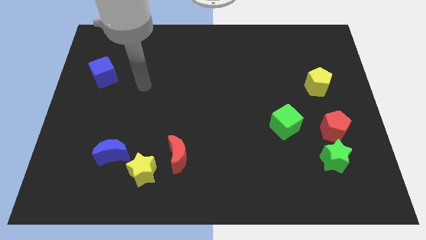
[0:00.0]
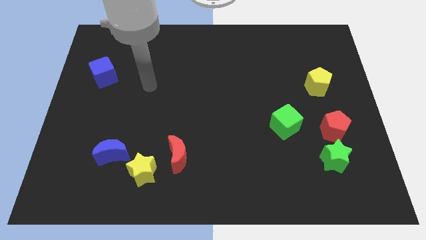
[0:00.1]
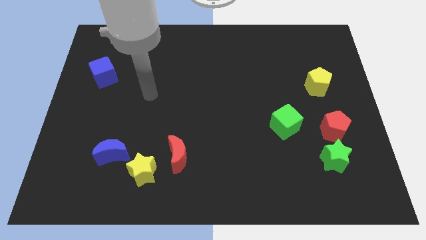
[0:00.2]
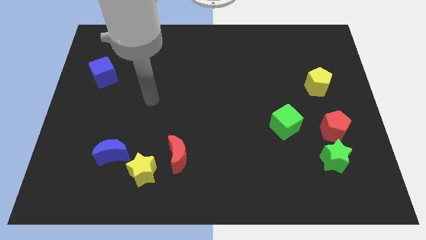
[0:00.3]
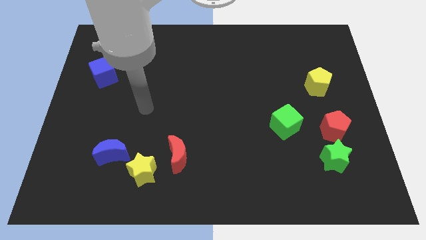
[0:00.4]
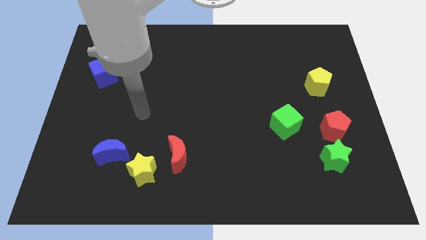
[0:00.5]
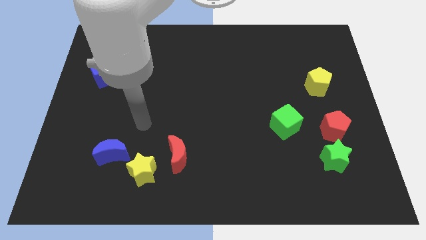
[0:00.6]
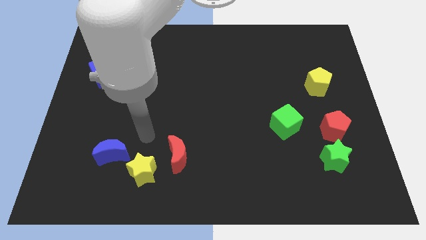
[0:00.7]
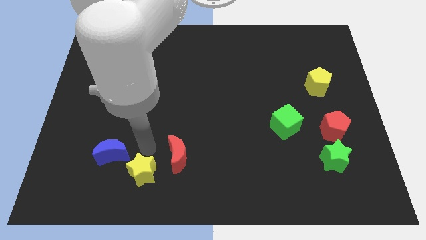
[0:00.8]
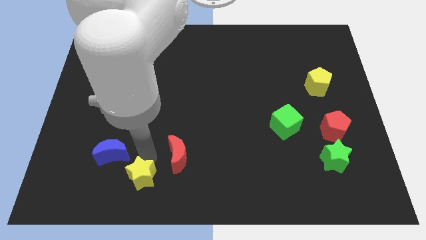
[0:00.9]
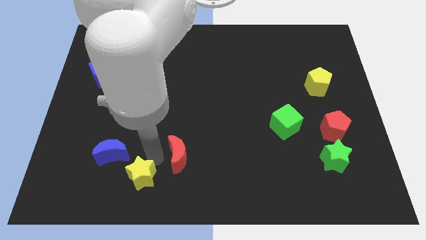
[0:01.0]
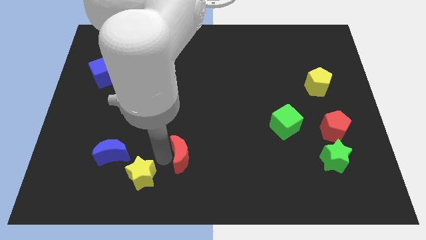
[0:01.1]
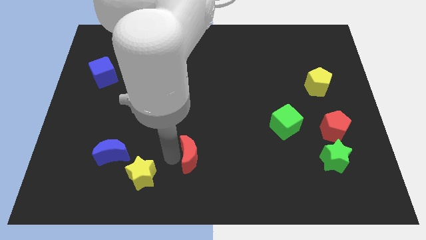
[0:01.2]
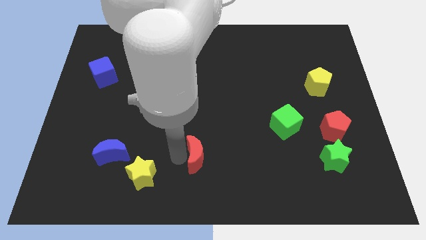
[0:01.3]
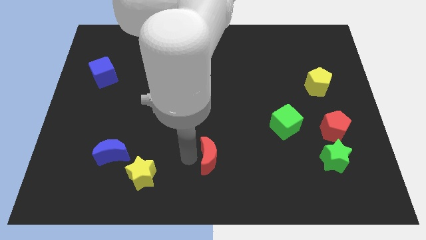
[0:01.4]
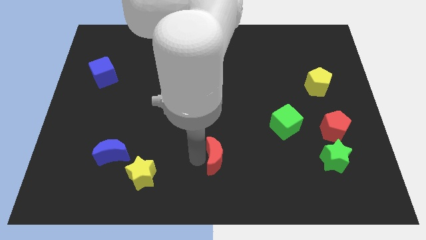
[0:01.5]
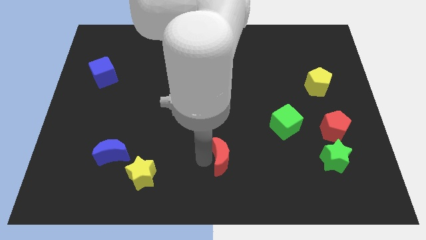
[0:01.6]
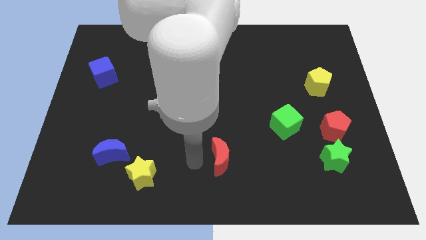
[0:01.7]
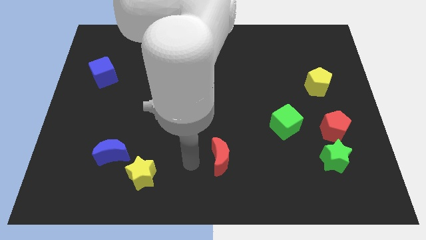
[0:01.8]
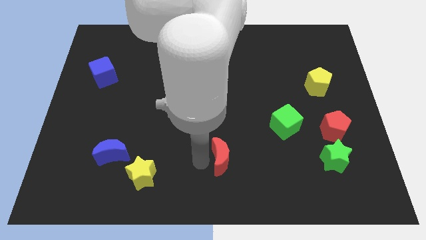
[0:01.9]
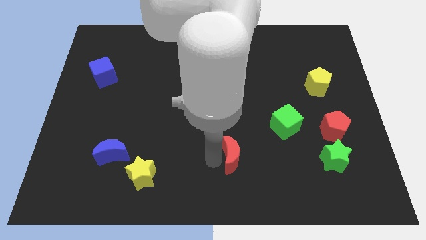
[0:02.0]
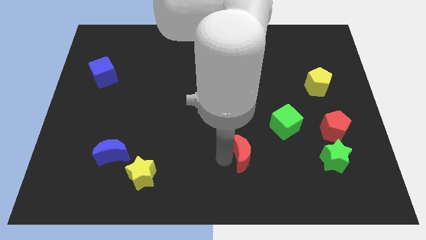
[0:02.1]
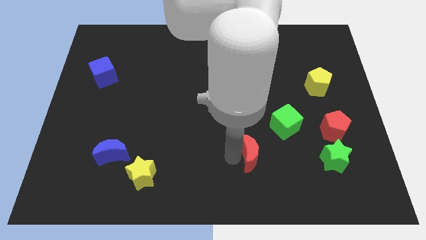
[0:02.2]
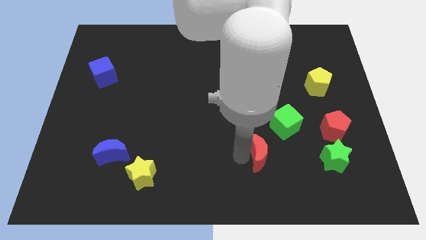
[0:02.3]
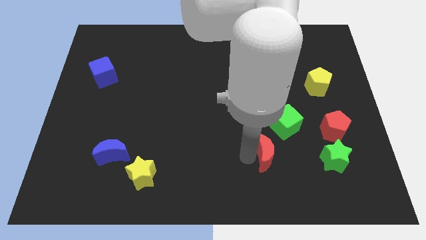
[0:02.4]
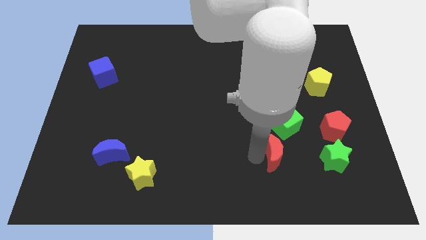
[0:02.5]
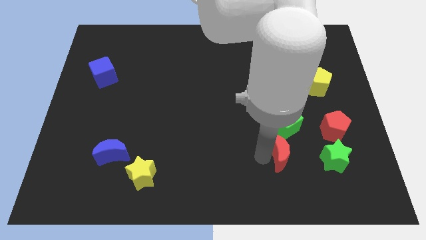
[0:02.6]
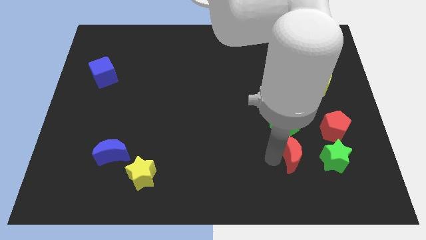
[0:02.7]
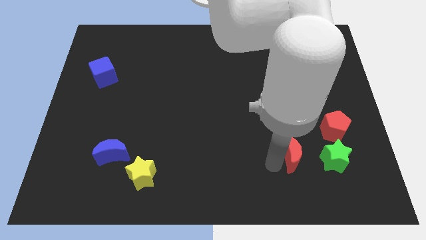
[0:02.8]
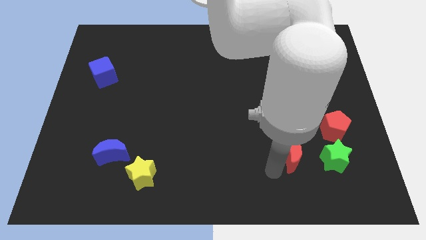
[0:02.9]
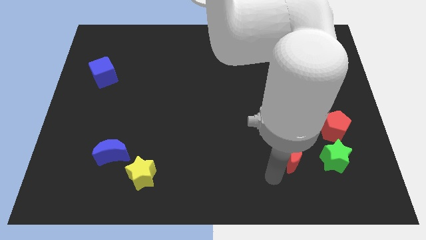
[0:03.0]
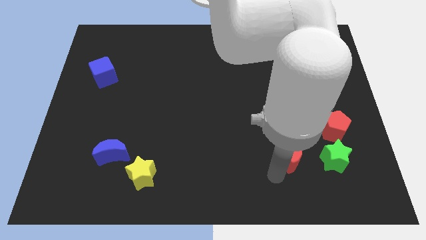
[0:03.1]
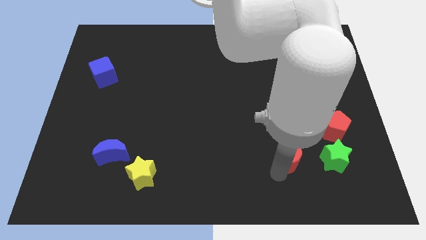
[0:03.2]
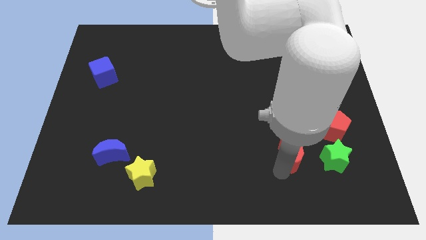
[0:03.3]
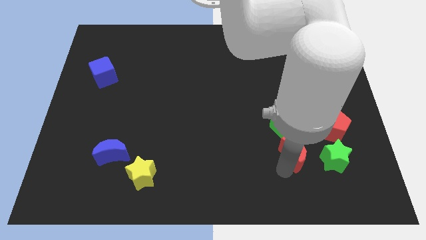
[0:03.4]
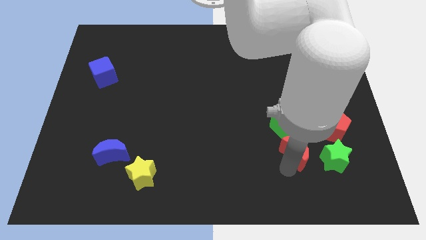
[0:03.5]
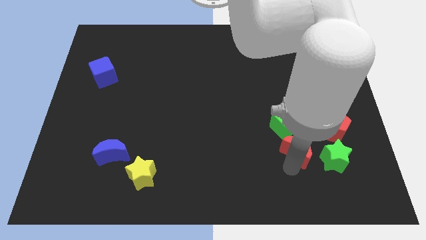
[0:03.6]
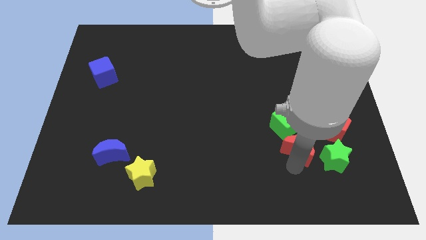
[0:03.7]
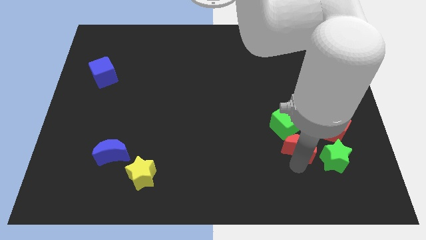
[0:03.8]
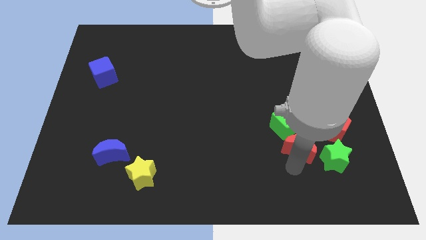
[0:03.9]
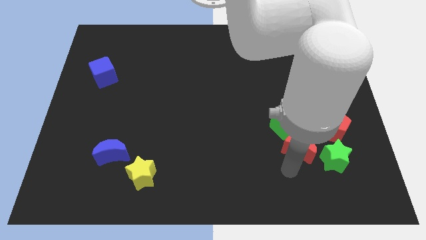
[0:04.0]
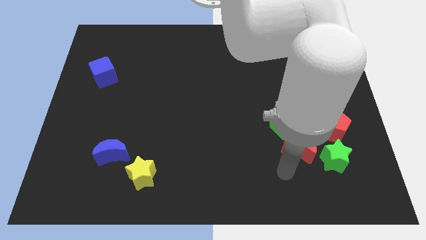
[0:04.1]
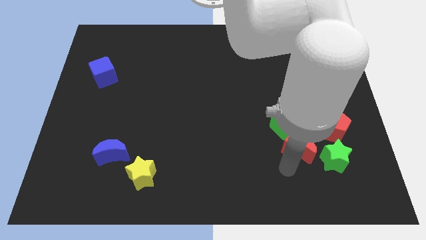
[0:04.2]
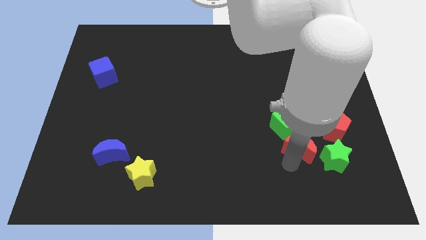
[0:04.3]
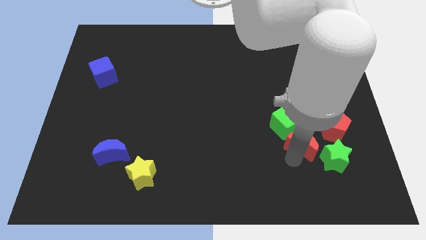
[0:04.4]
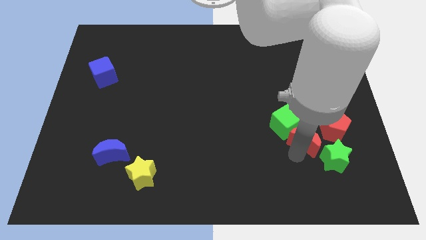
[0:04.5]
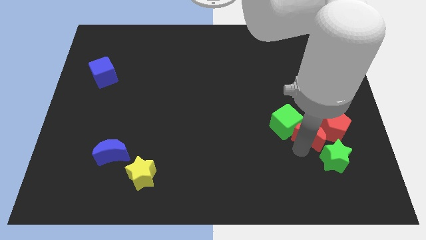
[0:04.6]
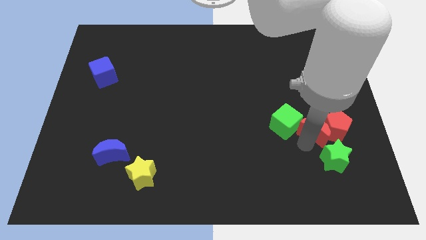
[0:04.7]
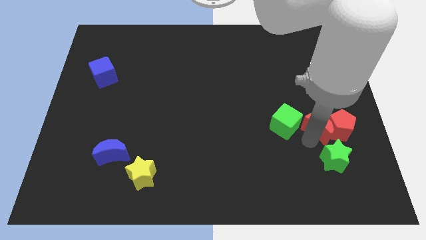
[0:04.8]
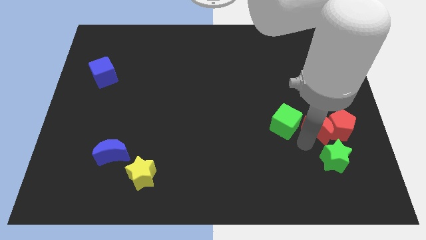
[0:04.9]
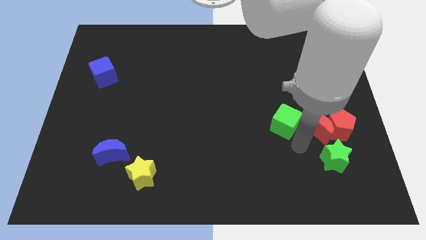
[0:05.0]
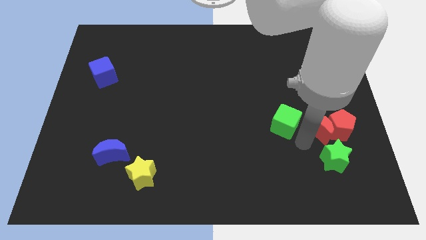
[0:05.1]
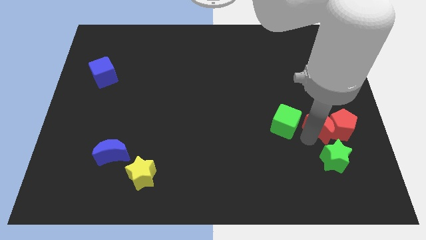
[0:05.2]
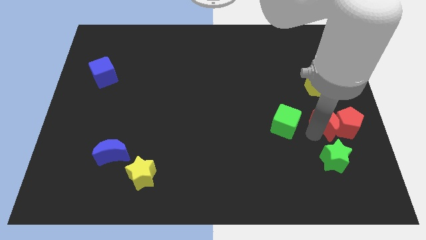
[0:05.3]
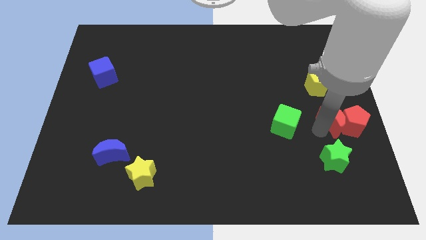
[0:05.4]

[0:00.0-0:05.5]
slide the red moon to the right side of the board

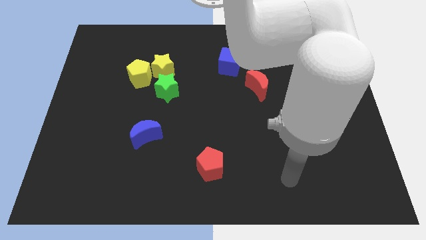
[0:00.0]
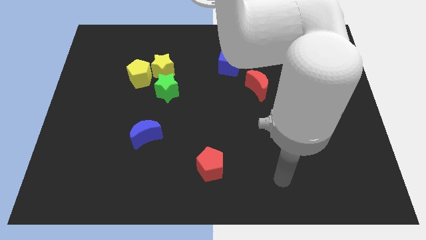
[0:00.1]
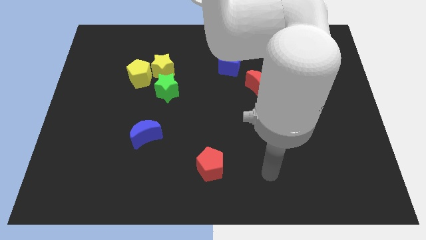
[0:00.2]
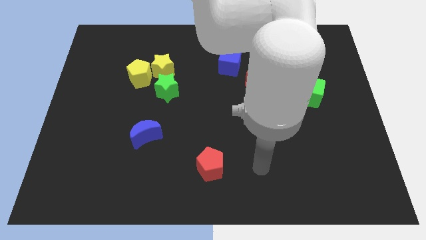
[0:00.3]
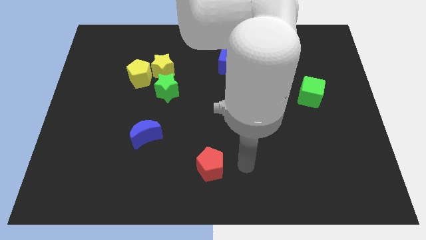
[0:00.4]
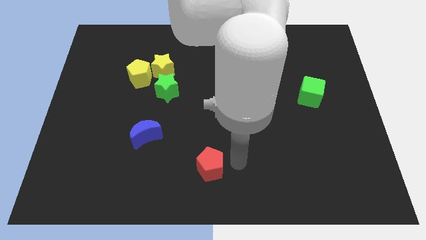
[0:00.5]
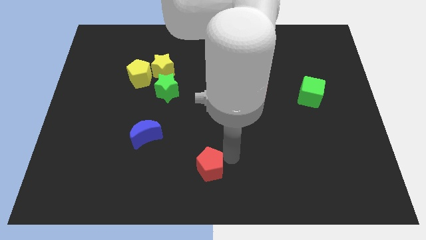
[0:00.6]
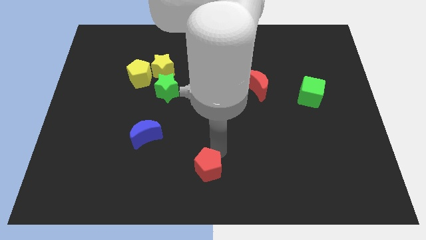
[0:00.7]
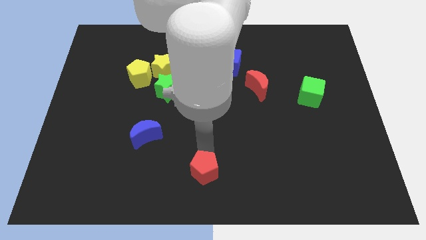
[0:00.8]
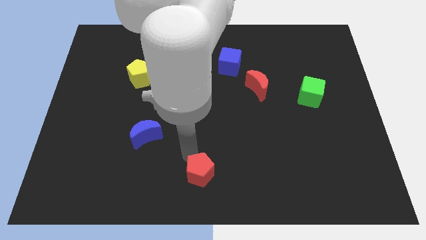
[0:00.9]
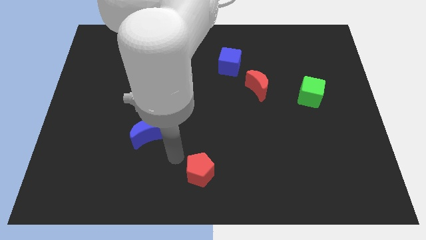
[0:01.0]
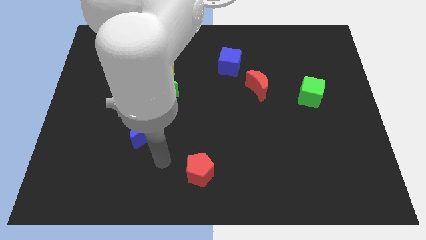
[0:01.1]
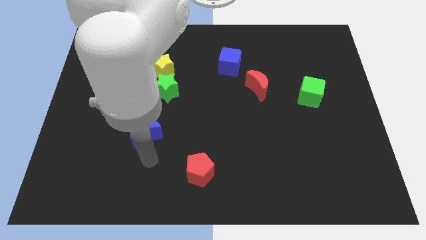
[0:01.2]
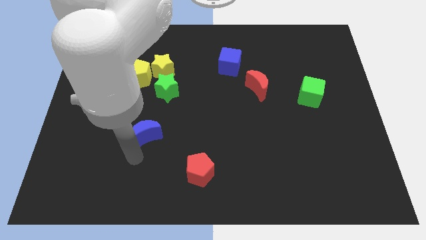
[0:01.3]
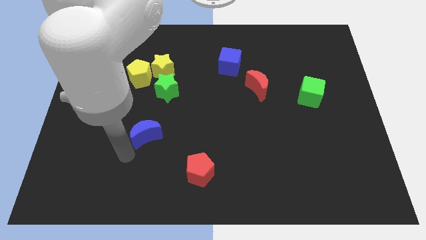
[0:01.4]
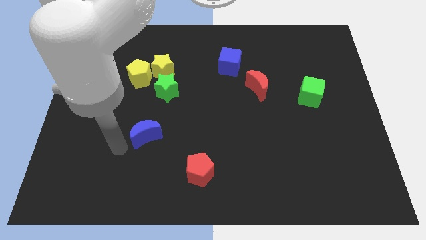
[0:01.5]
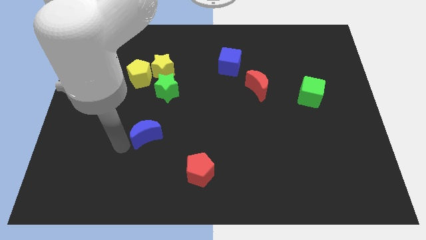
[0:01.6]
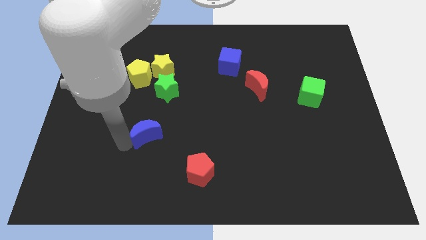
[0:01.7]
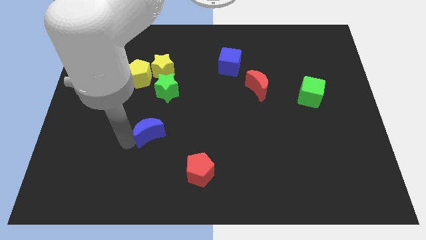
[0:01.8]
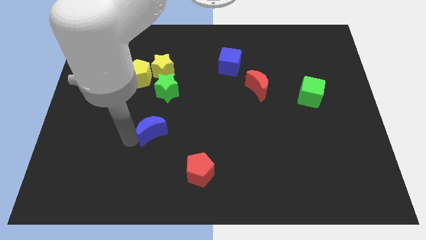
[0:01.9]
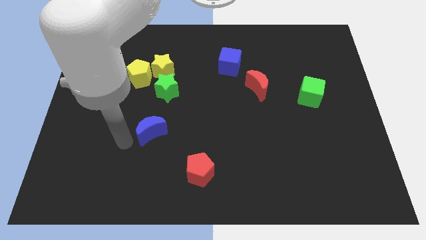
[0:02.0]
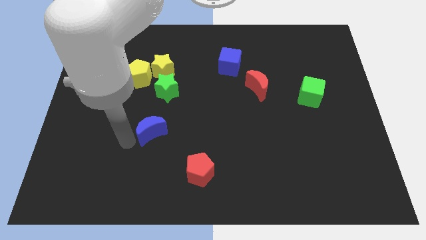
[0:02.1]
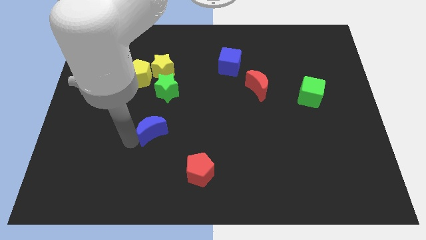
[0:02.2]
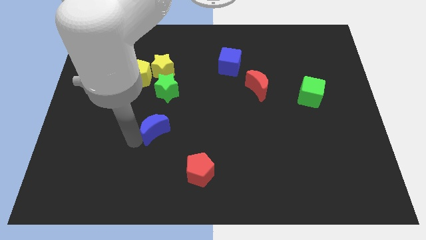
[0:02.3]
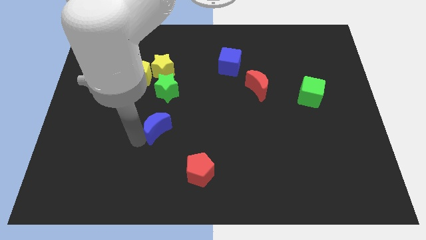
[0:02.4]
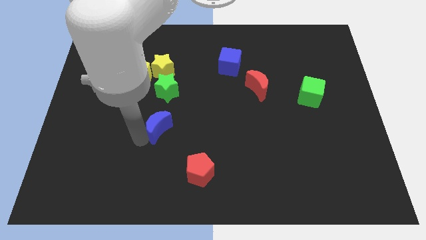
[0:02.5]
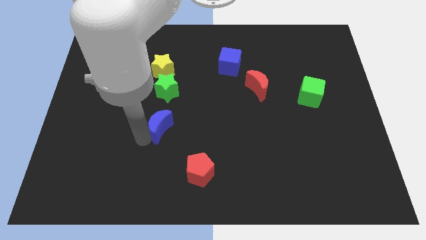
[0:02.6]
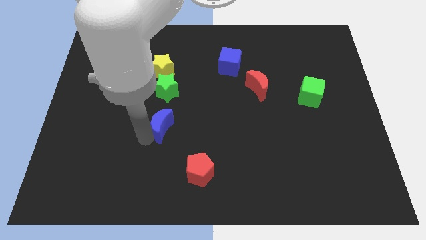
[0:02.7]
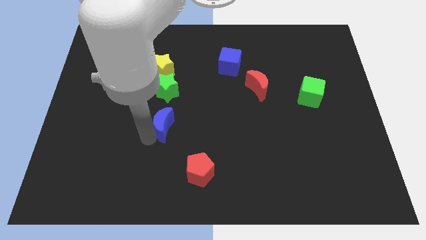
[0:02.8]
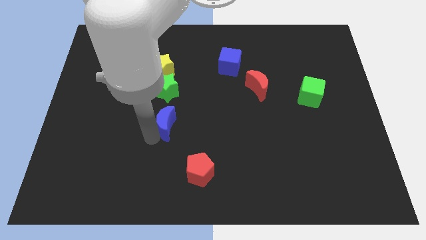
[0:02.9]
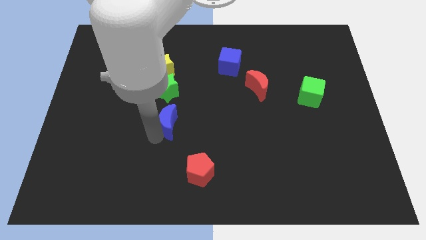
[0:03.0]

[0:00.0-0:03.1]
move the blue moon to the center of the board
